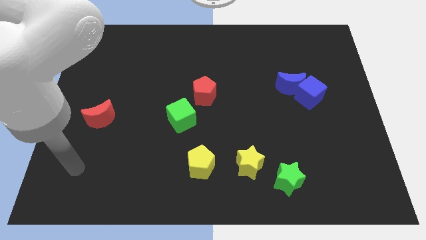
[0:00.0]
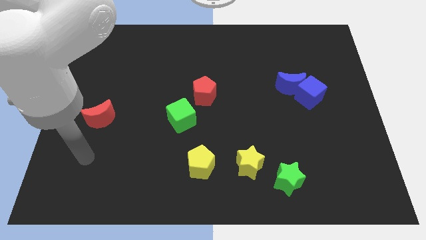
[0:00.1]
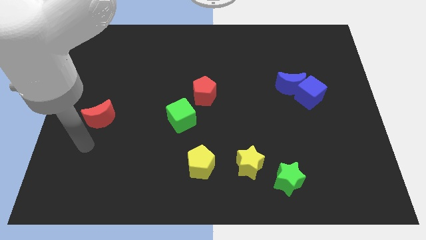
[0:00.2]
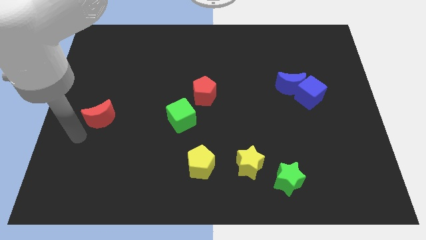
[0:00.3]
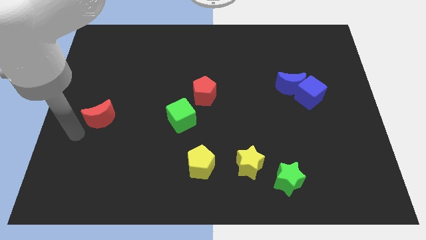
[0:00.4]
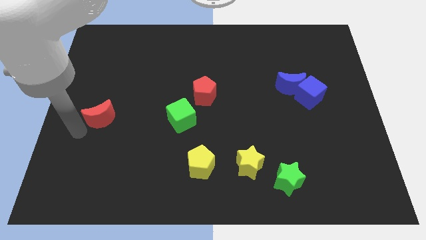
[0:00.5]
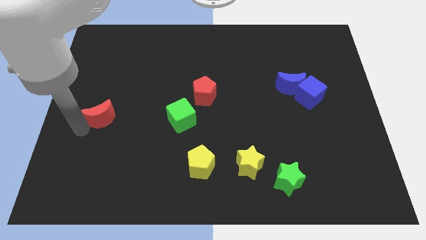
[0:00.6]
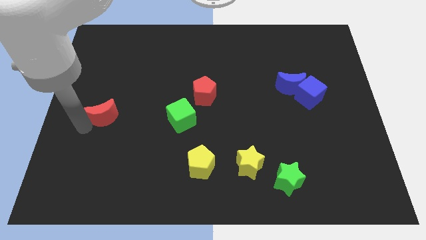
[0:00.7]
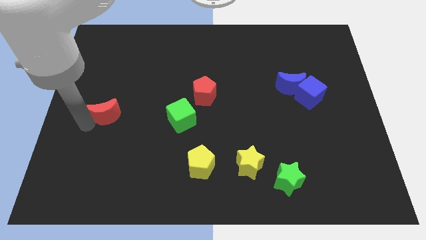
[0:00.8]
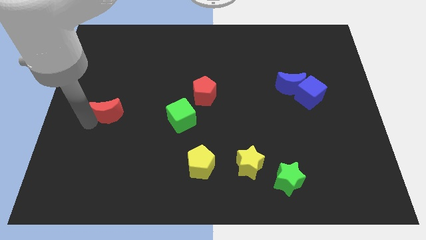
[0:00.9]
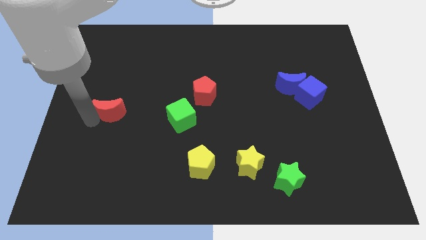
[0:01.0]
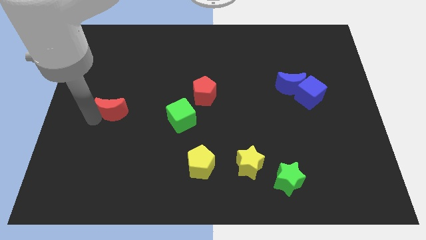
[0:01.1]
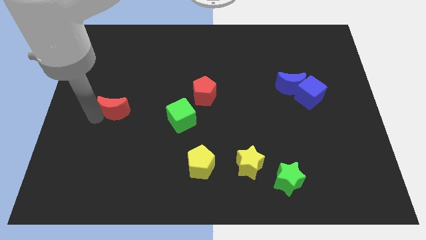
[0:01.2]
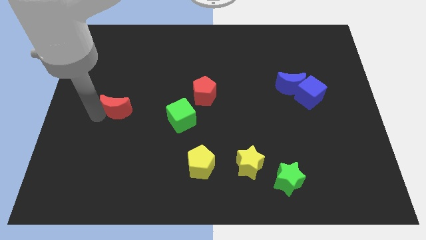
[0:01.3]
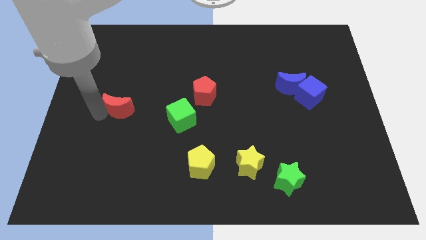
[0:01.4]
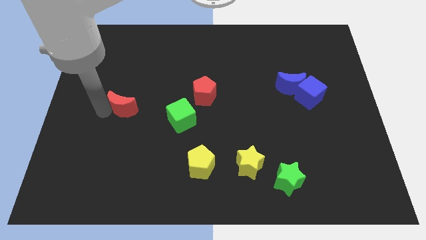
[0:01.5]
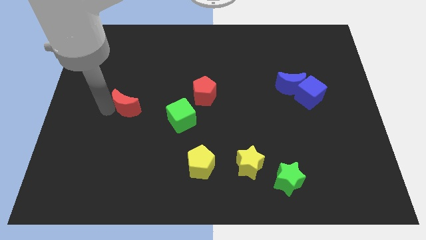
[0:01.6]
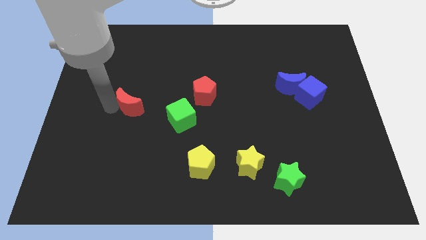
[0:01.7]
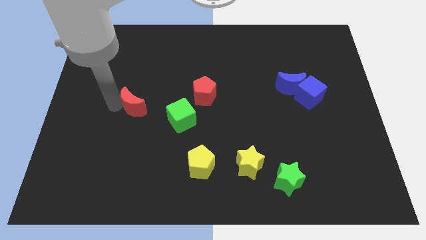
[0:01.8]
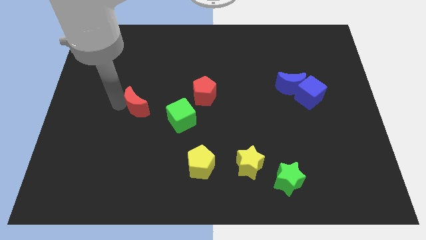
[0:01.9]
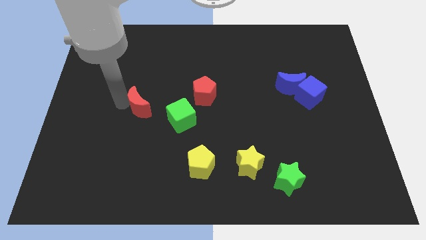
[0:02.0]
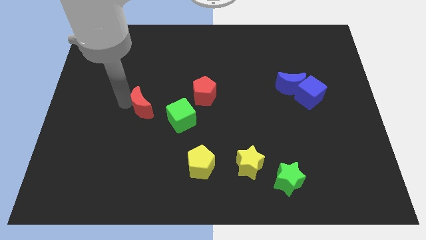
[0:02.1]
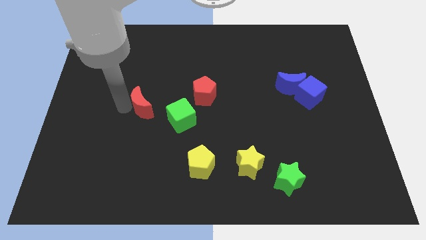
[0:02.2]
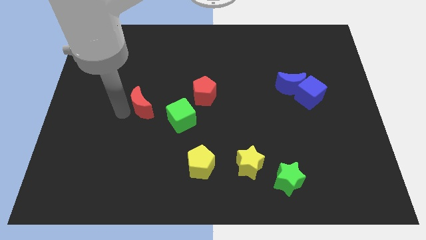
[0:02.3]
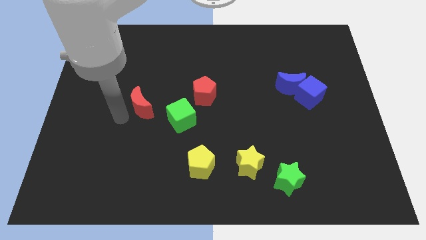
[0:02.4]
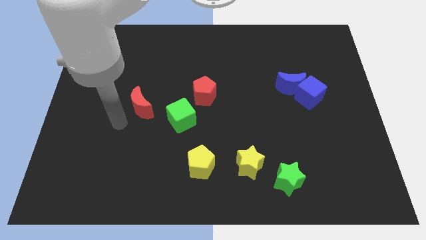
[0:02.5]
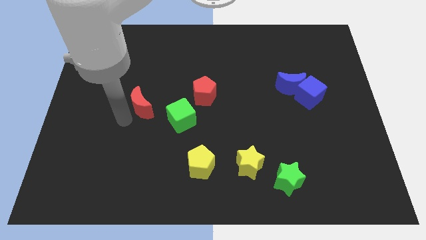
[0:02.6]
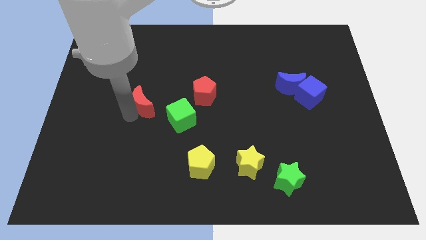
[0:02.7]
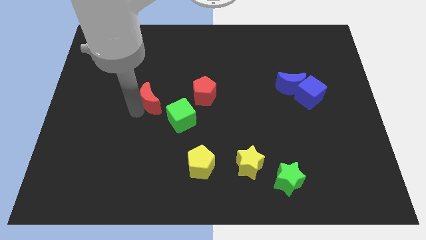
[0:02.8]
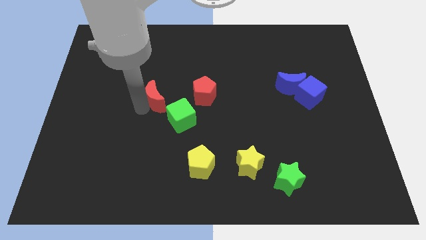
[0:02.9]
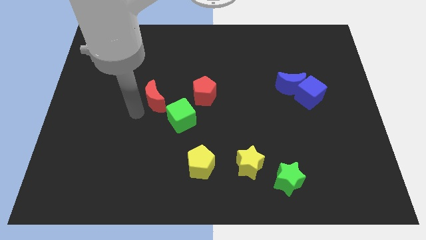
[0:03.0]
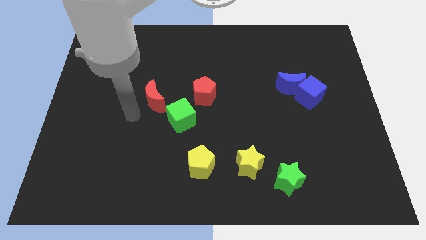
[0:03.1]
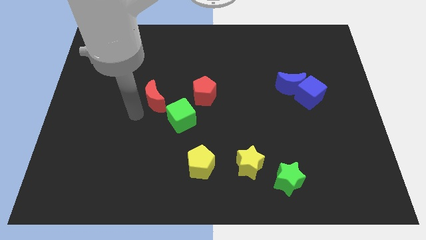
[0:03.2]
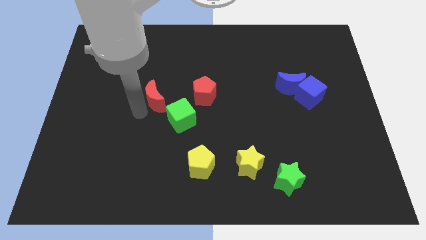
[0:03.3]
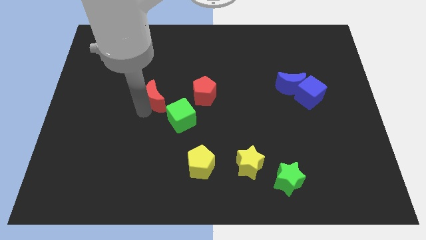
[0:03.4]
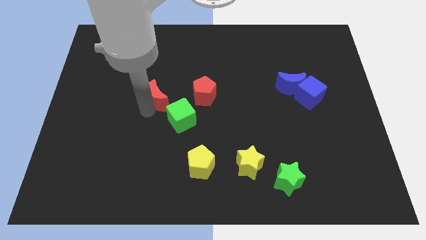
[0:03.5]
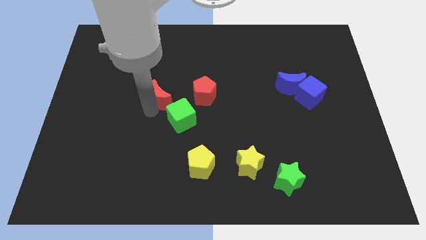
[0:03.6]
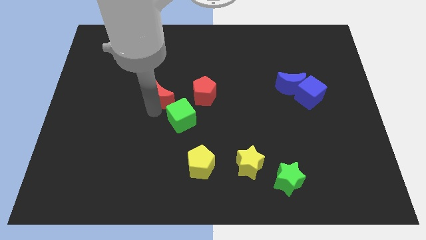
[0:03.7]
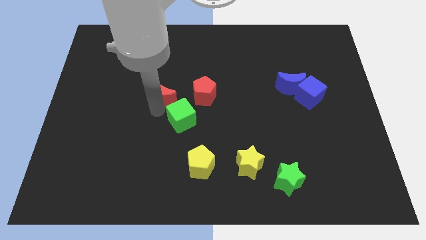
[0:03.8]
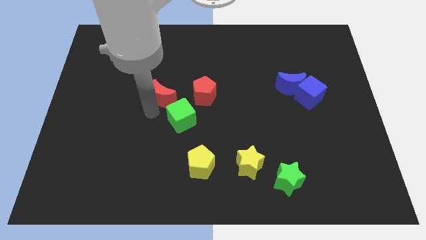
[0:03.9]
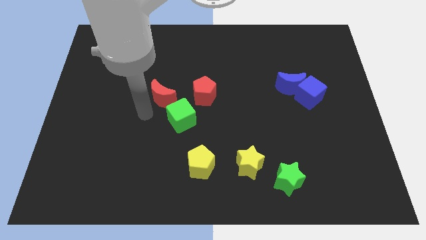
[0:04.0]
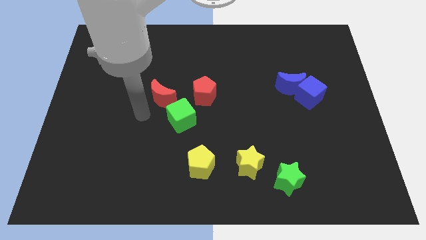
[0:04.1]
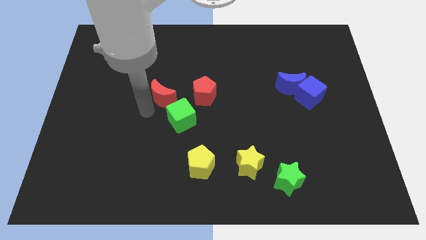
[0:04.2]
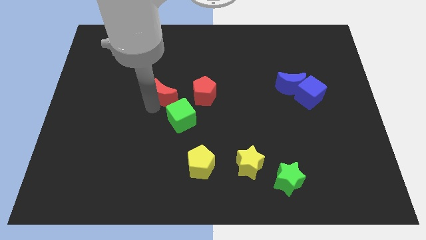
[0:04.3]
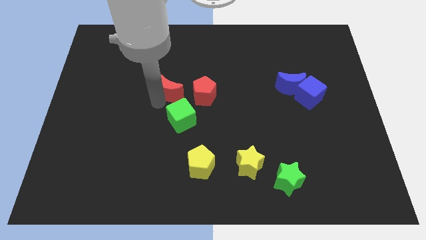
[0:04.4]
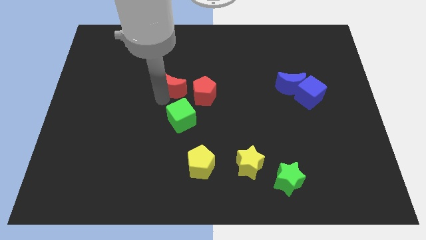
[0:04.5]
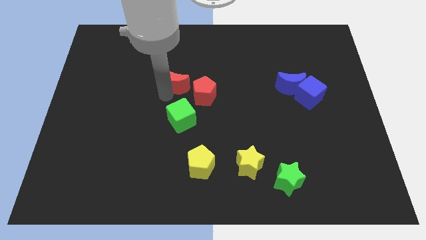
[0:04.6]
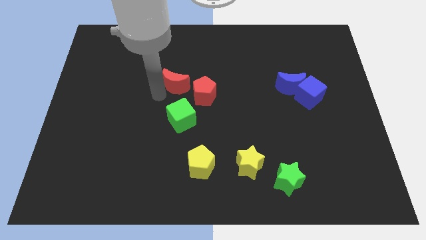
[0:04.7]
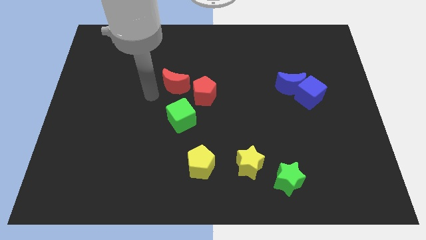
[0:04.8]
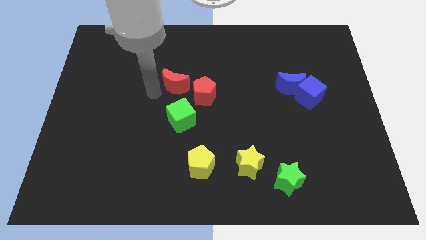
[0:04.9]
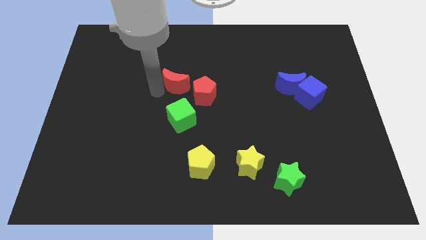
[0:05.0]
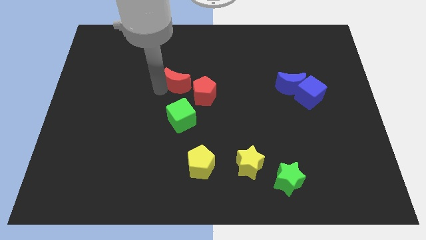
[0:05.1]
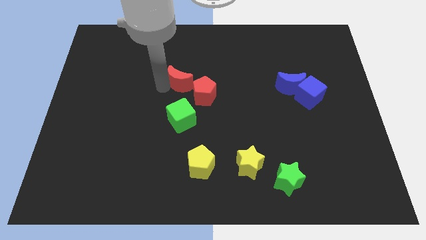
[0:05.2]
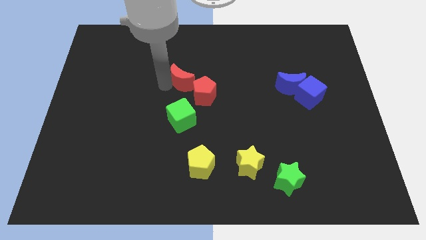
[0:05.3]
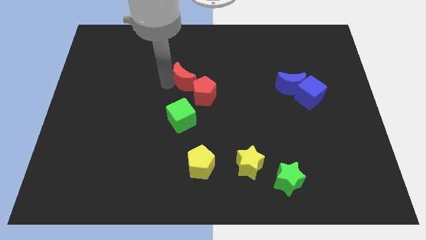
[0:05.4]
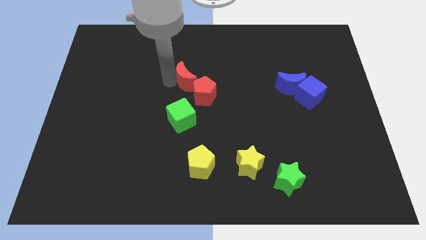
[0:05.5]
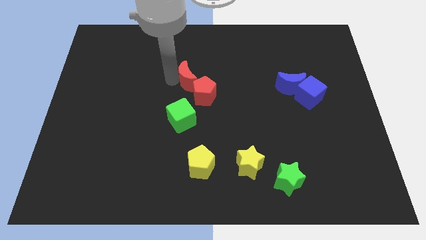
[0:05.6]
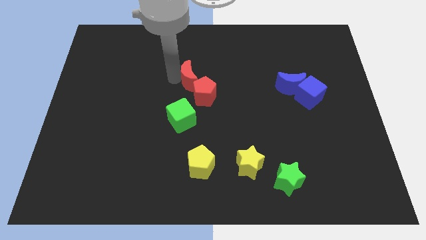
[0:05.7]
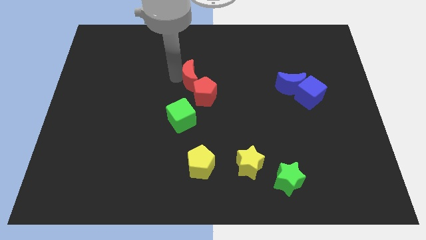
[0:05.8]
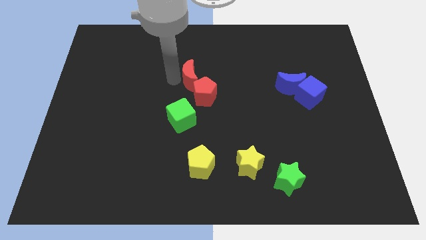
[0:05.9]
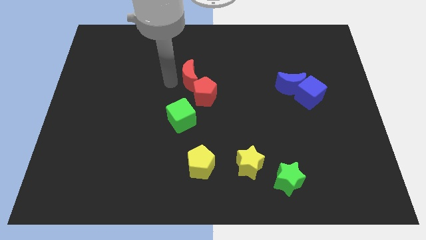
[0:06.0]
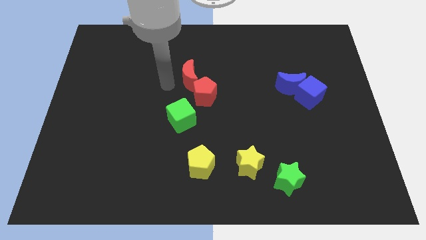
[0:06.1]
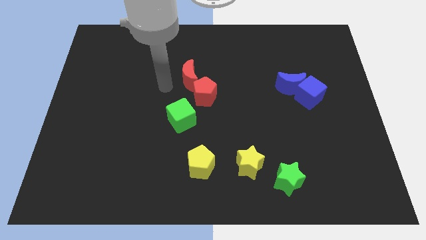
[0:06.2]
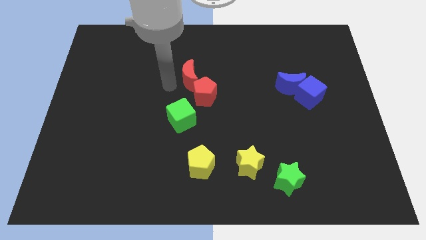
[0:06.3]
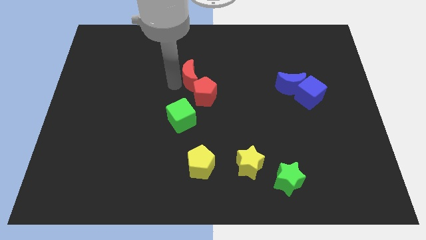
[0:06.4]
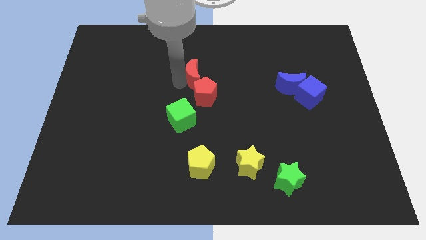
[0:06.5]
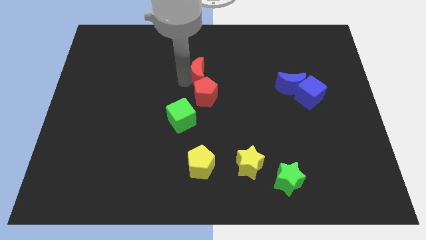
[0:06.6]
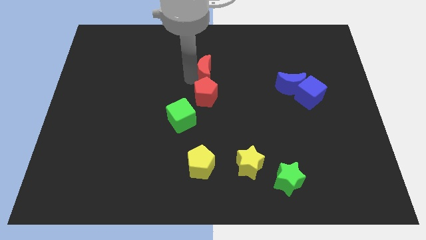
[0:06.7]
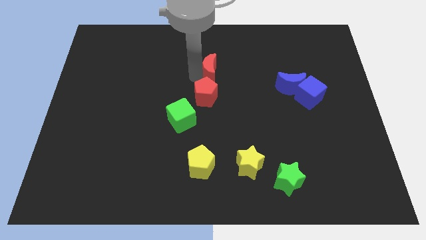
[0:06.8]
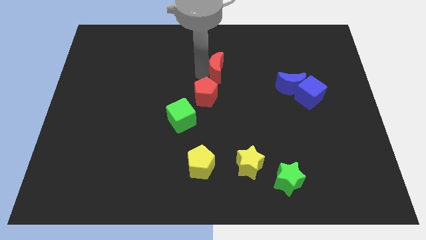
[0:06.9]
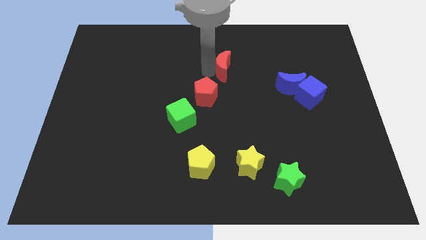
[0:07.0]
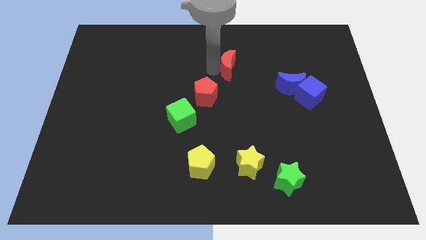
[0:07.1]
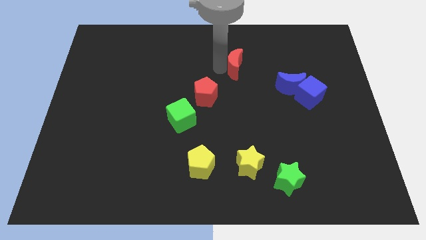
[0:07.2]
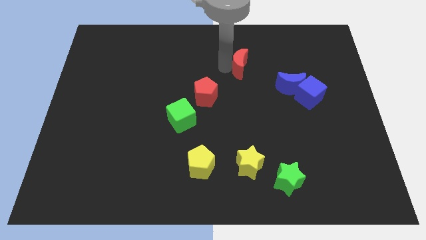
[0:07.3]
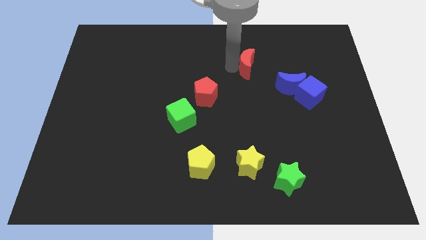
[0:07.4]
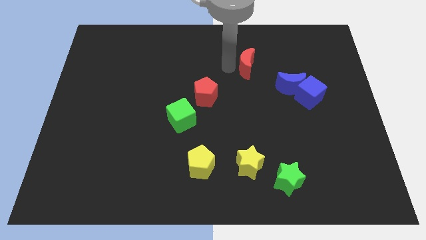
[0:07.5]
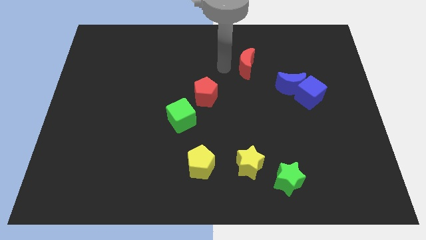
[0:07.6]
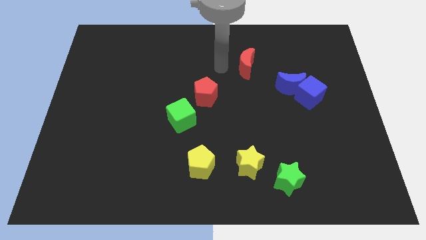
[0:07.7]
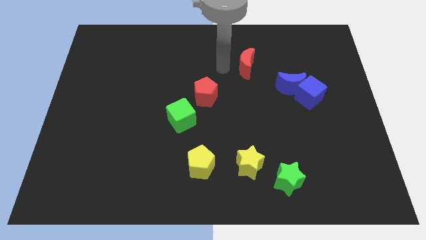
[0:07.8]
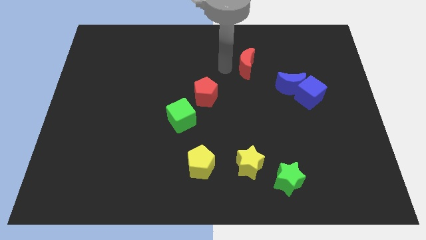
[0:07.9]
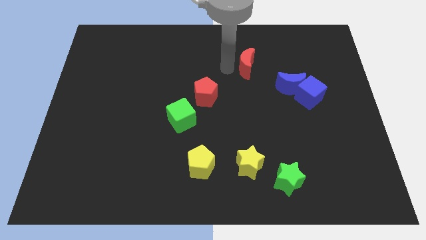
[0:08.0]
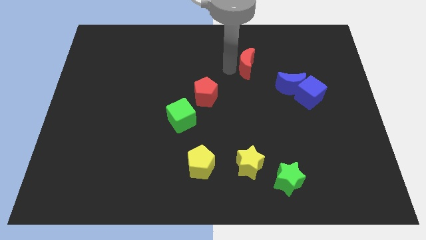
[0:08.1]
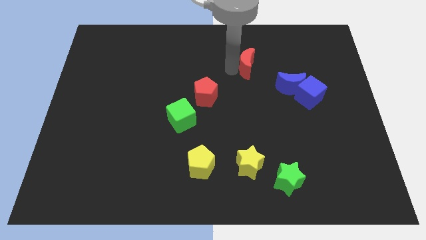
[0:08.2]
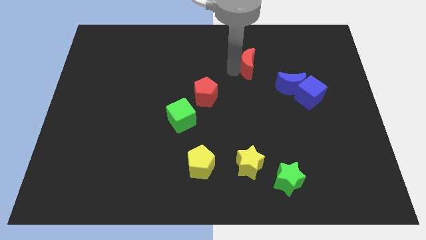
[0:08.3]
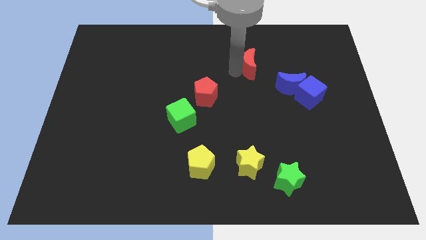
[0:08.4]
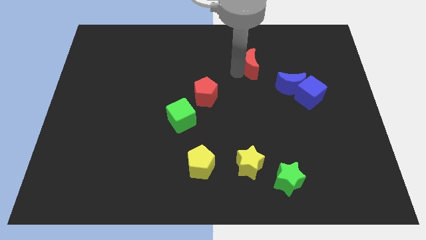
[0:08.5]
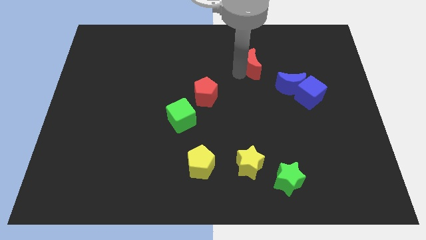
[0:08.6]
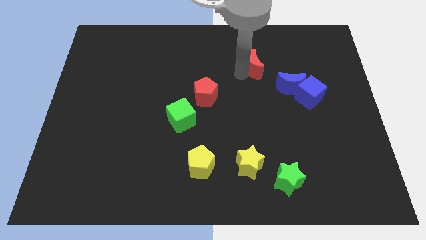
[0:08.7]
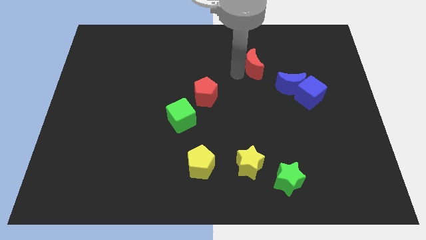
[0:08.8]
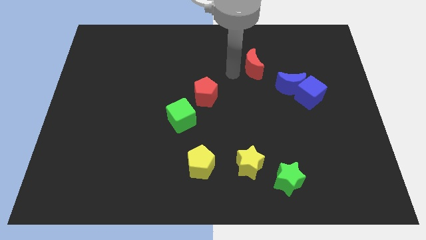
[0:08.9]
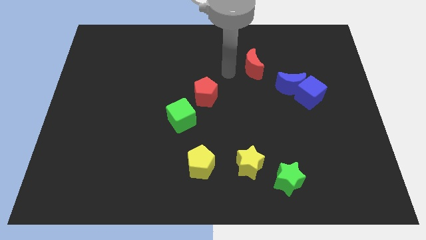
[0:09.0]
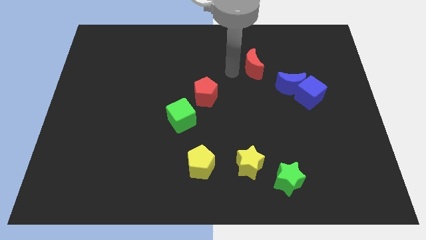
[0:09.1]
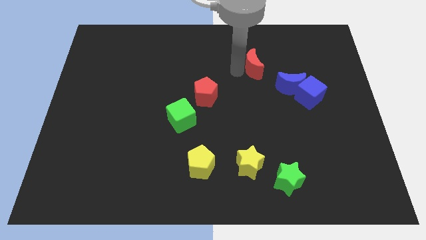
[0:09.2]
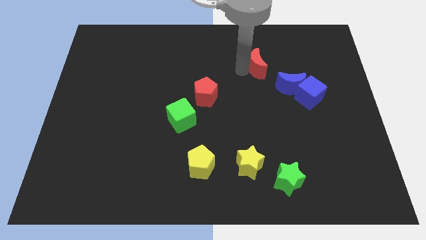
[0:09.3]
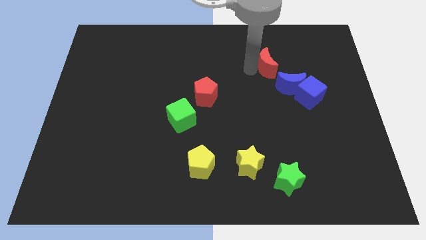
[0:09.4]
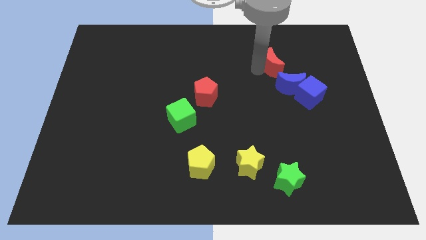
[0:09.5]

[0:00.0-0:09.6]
move the red moon to the top of the blue moon
